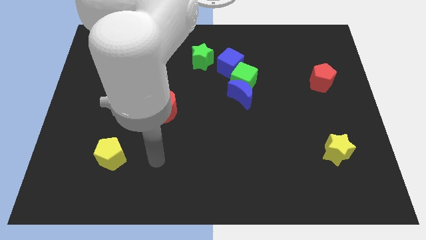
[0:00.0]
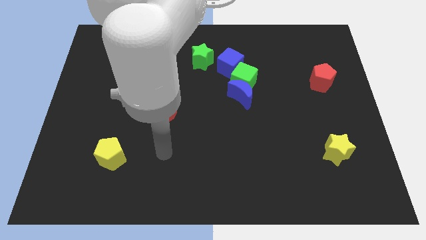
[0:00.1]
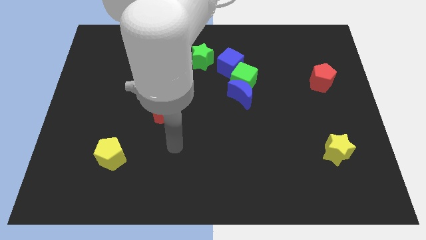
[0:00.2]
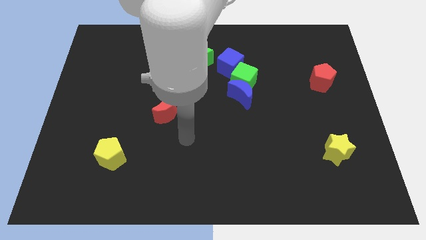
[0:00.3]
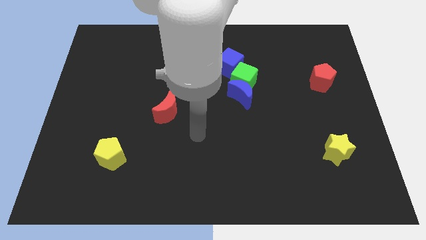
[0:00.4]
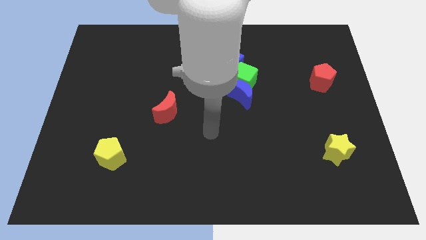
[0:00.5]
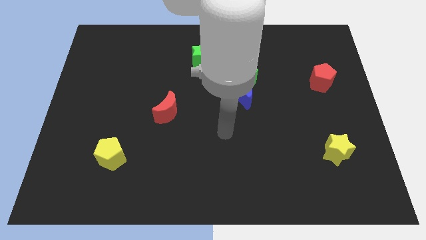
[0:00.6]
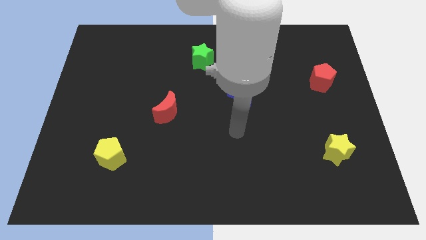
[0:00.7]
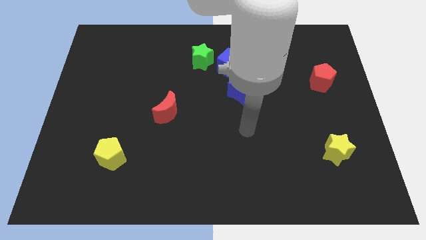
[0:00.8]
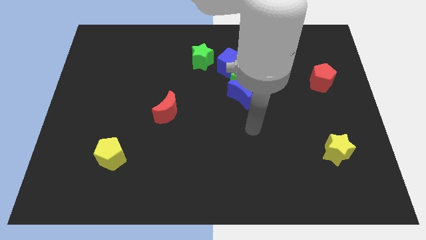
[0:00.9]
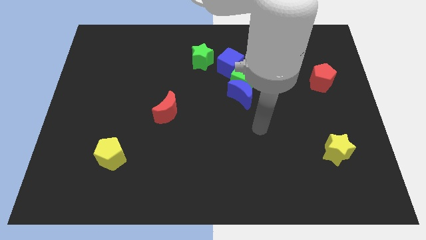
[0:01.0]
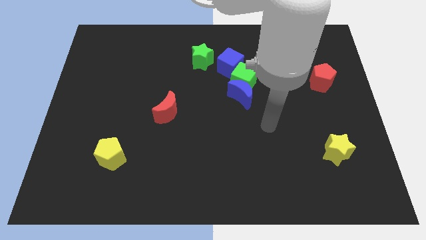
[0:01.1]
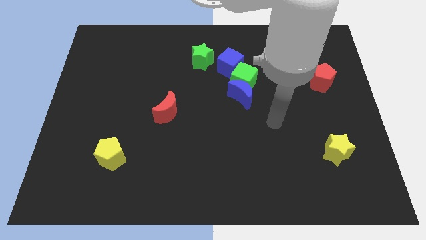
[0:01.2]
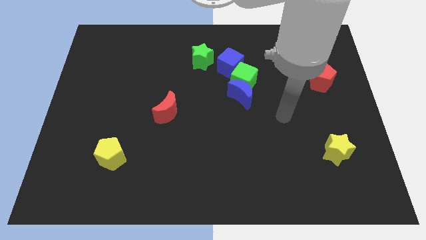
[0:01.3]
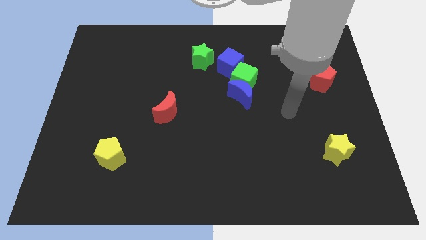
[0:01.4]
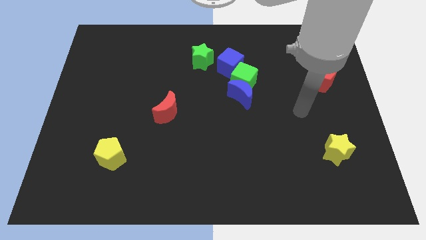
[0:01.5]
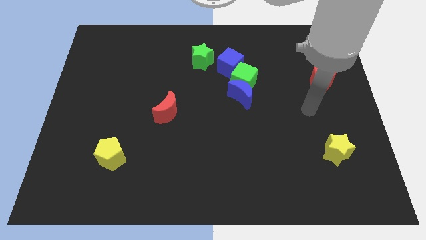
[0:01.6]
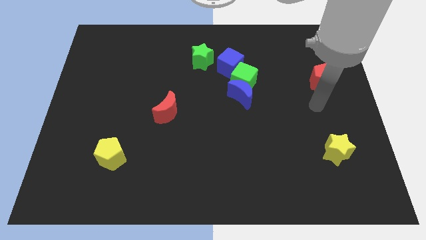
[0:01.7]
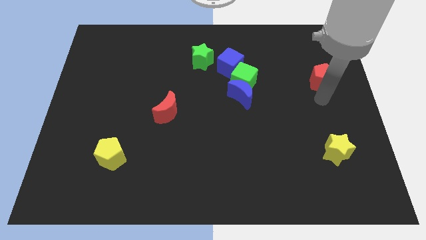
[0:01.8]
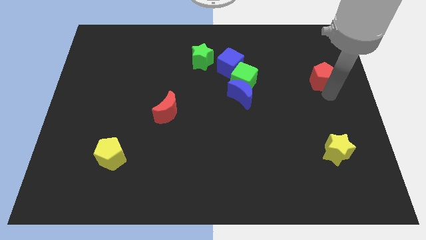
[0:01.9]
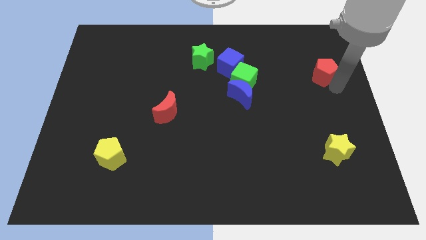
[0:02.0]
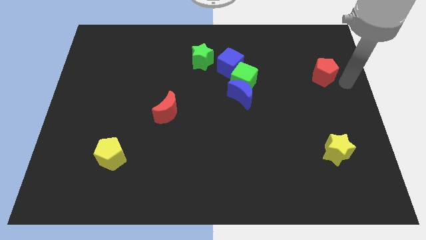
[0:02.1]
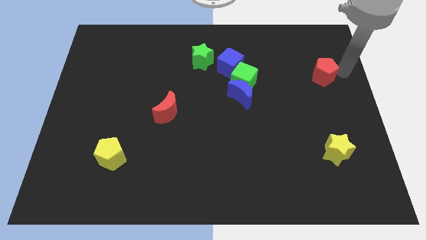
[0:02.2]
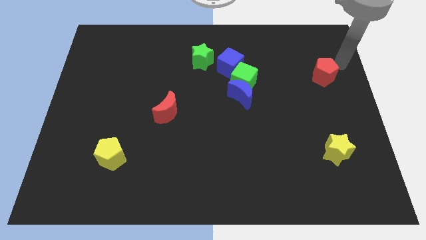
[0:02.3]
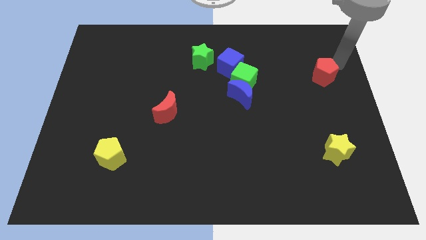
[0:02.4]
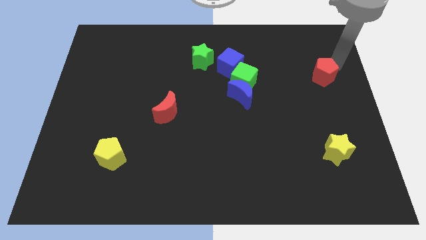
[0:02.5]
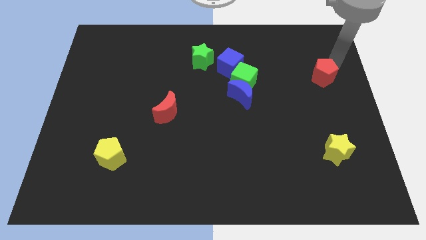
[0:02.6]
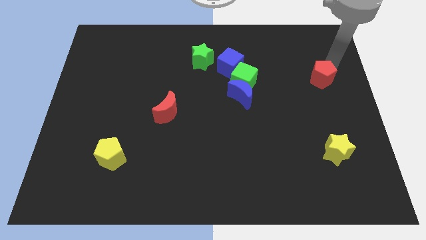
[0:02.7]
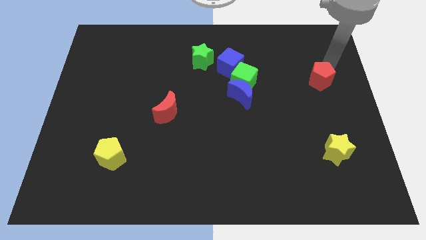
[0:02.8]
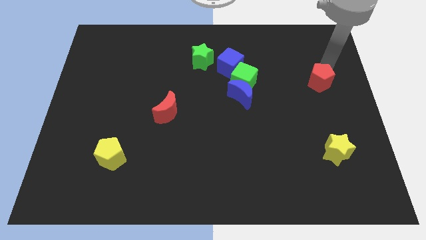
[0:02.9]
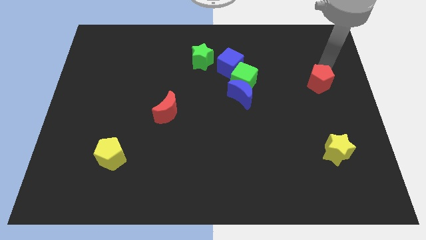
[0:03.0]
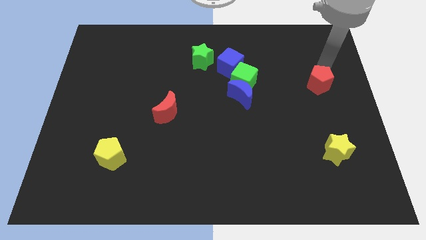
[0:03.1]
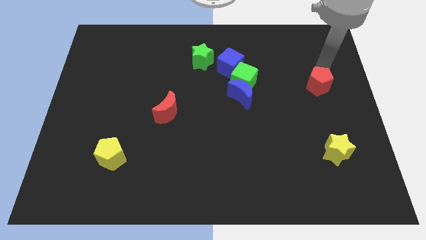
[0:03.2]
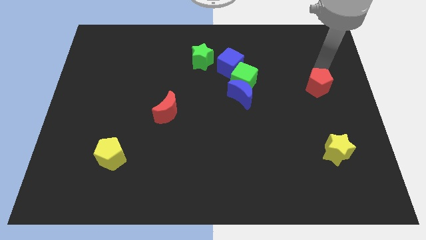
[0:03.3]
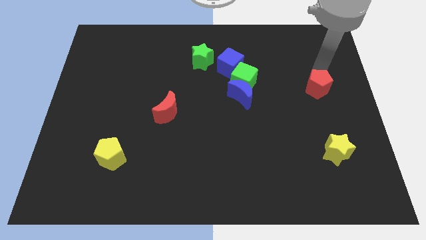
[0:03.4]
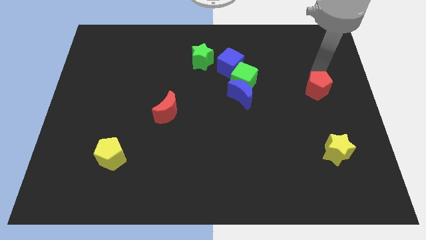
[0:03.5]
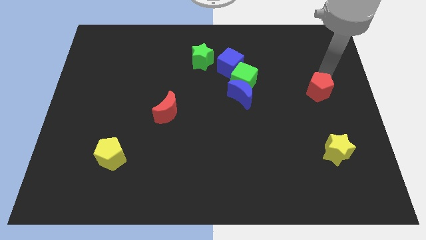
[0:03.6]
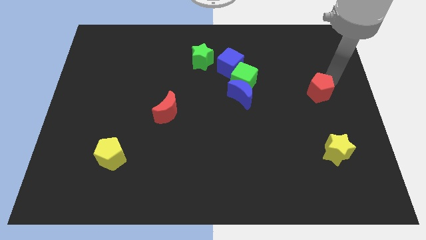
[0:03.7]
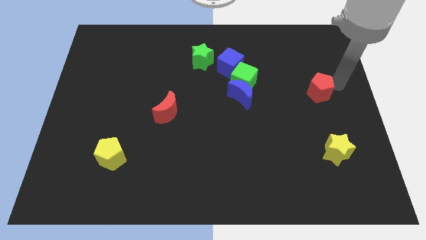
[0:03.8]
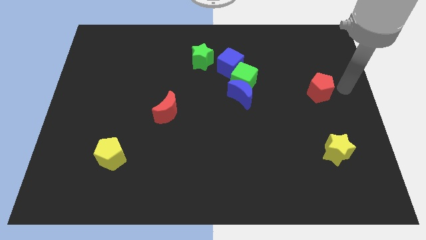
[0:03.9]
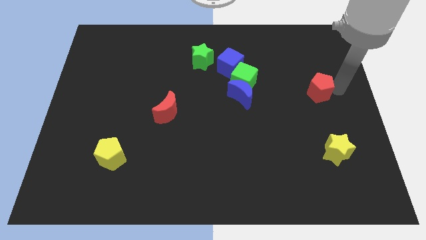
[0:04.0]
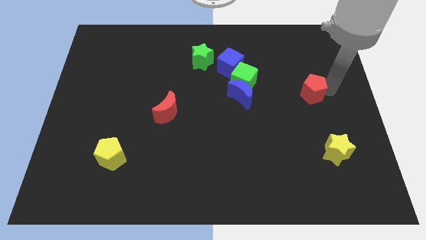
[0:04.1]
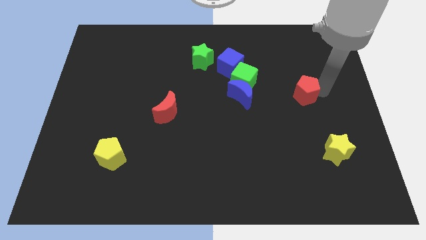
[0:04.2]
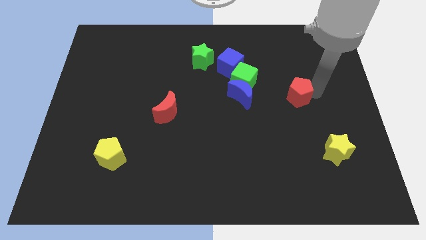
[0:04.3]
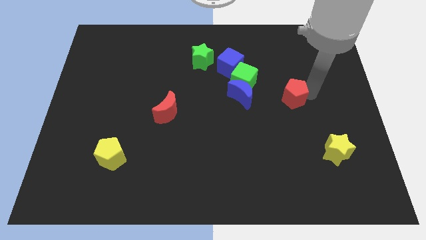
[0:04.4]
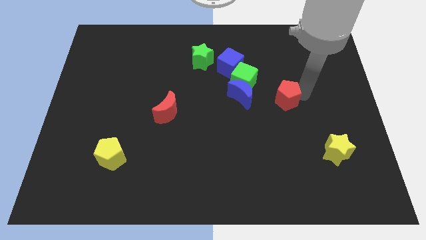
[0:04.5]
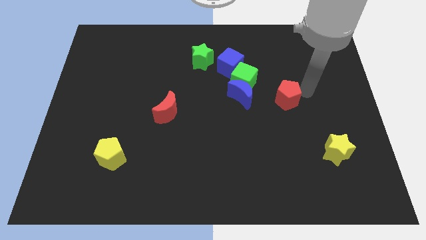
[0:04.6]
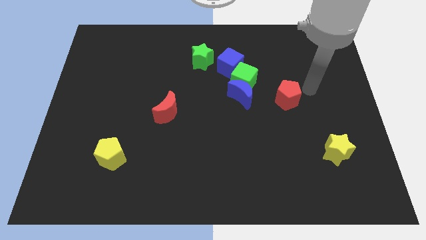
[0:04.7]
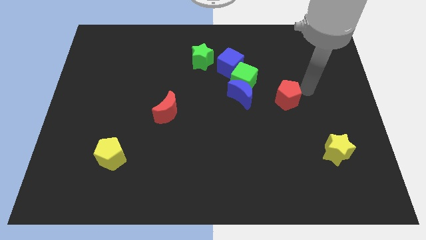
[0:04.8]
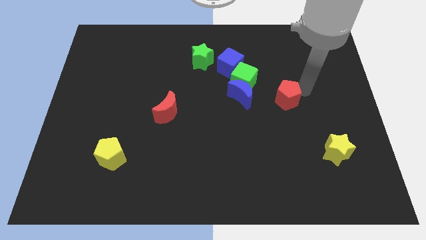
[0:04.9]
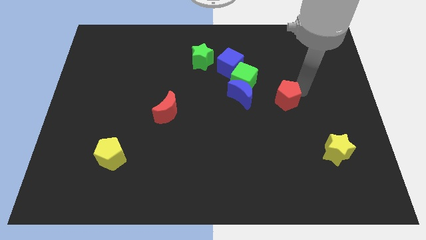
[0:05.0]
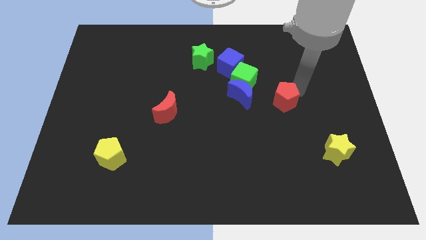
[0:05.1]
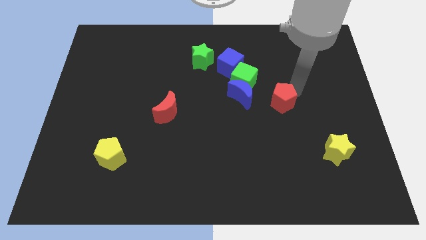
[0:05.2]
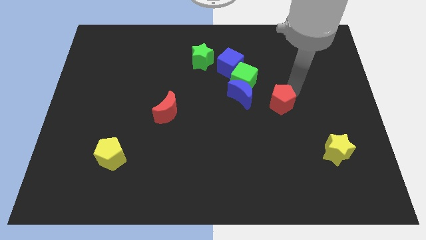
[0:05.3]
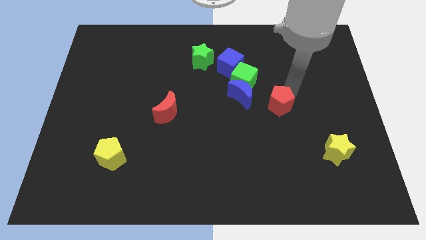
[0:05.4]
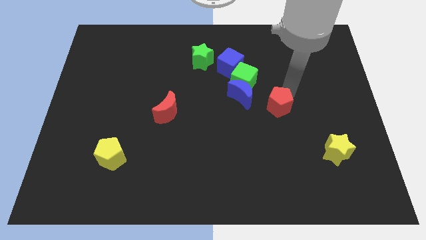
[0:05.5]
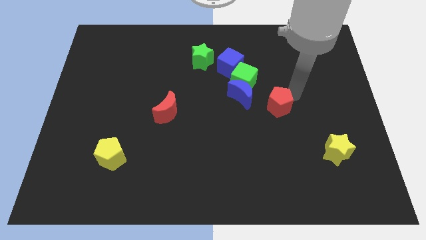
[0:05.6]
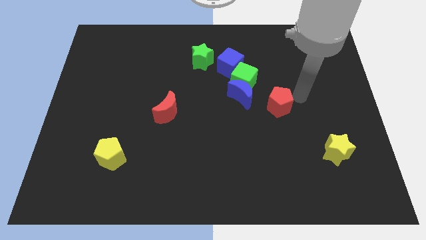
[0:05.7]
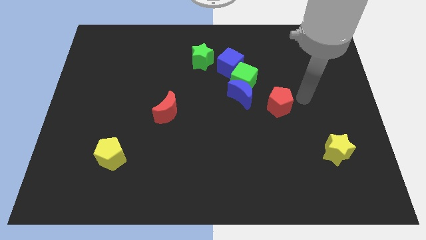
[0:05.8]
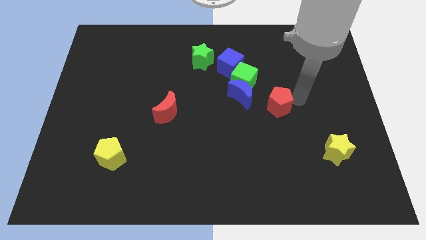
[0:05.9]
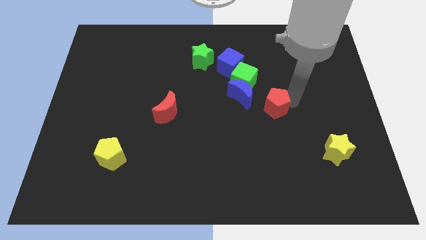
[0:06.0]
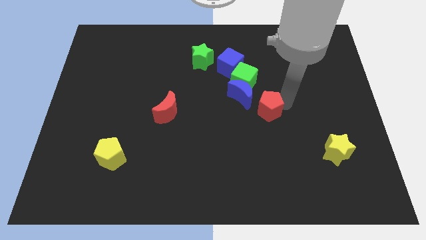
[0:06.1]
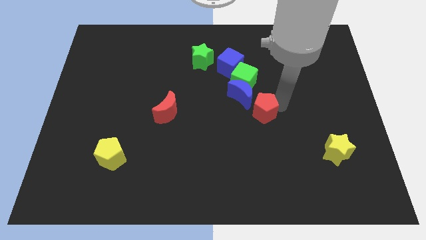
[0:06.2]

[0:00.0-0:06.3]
slide the red pentagon to the center

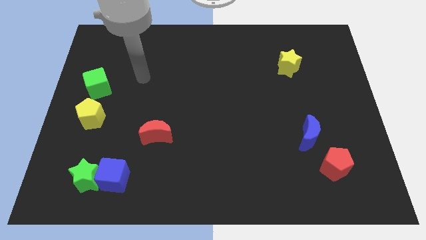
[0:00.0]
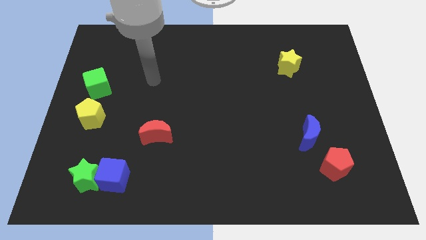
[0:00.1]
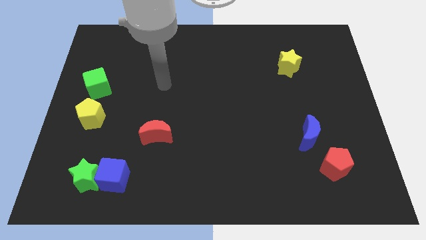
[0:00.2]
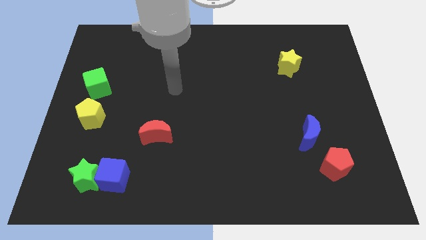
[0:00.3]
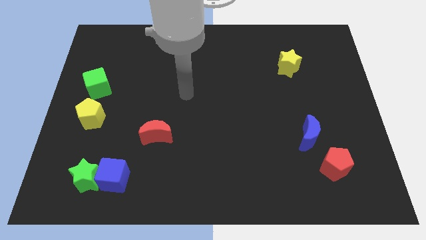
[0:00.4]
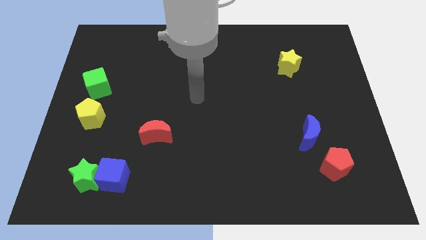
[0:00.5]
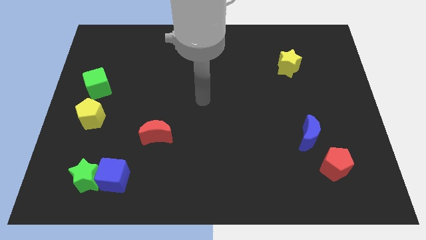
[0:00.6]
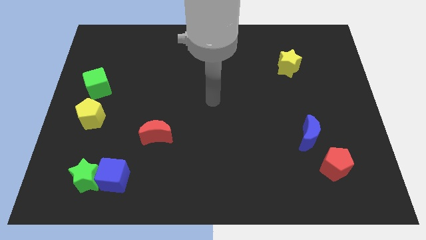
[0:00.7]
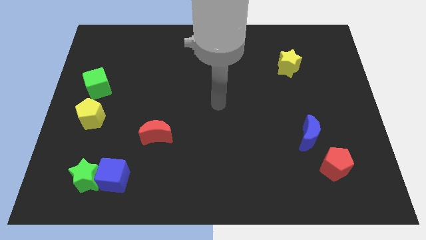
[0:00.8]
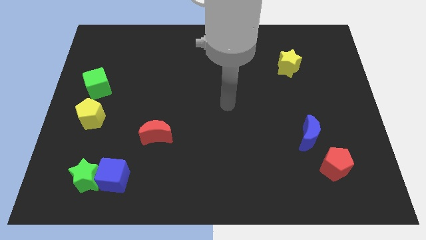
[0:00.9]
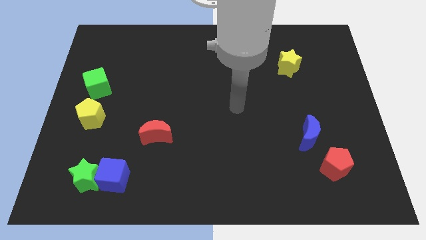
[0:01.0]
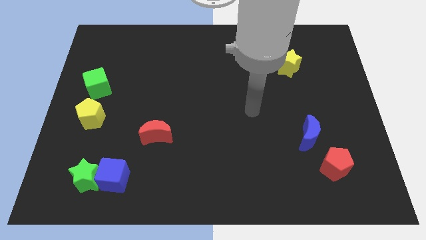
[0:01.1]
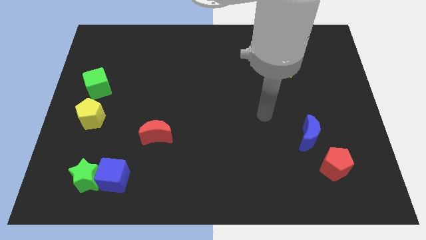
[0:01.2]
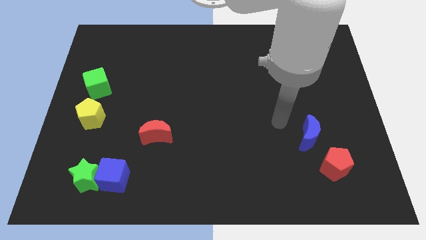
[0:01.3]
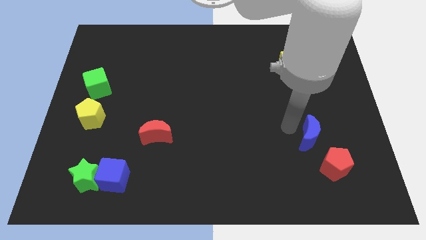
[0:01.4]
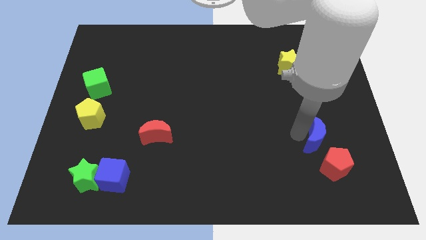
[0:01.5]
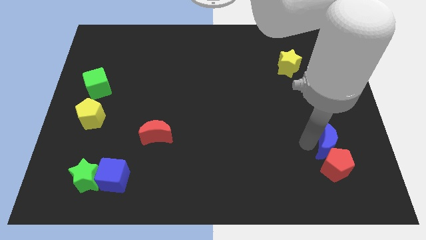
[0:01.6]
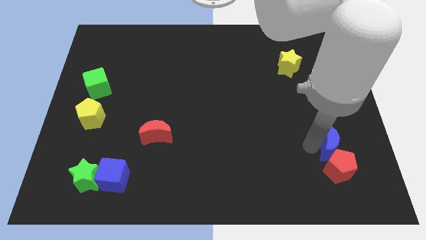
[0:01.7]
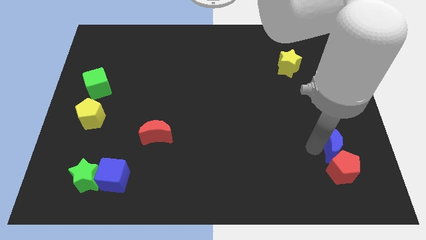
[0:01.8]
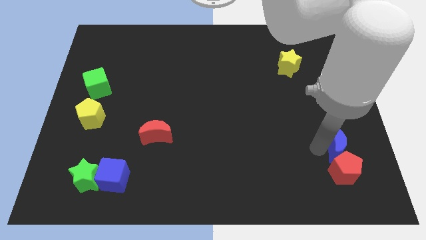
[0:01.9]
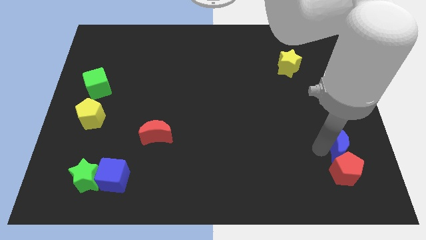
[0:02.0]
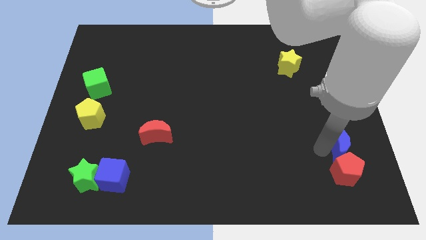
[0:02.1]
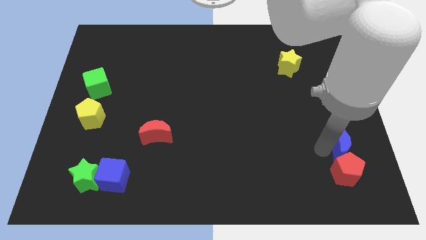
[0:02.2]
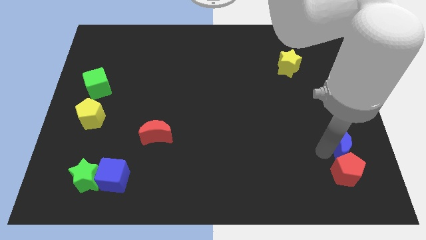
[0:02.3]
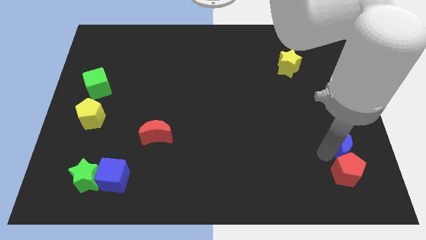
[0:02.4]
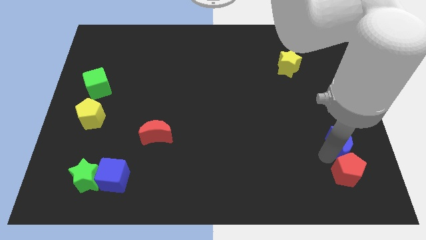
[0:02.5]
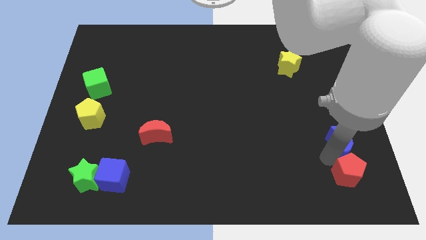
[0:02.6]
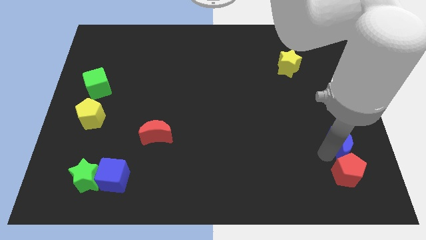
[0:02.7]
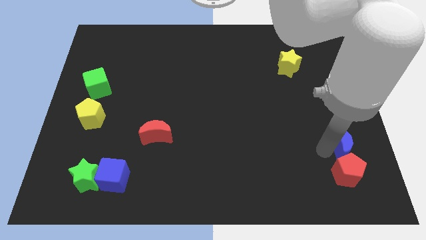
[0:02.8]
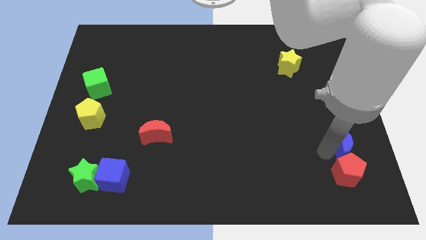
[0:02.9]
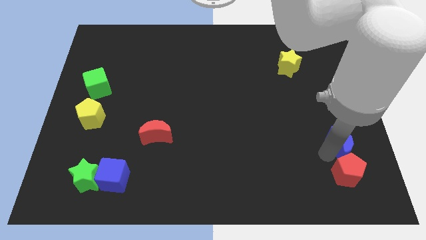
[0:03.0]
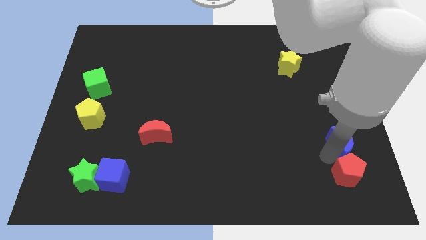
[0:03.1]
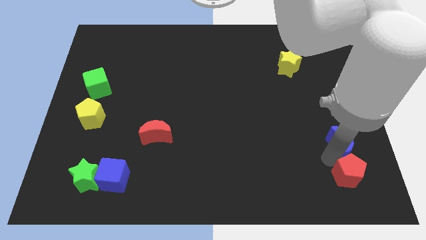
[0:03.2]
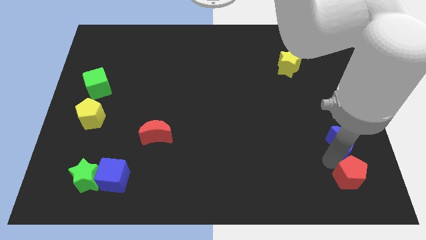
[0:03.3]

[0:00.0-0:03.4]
move the red pentagon to the bottom right corner
